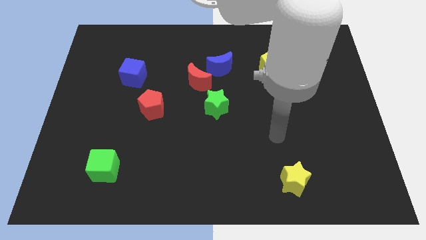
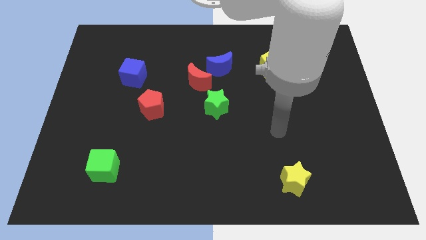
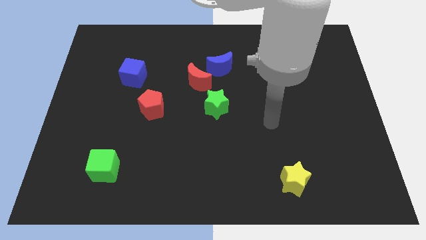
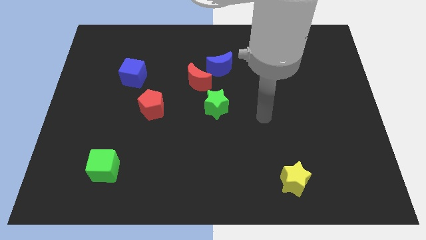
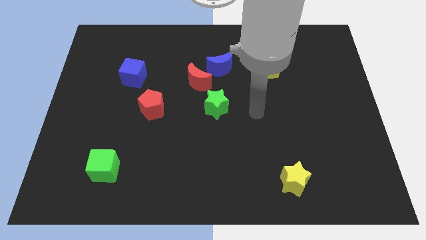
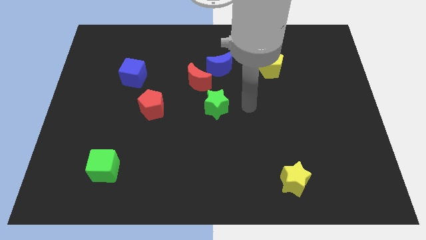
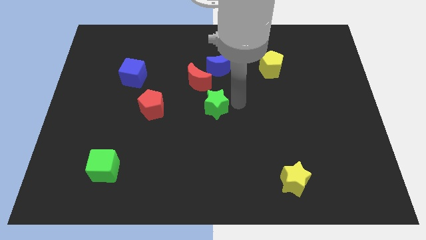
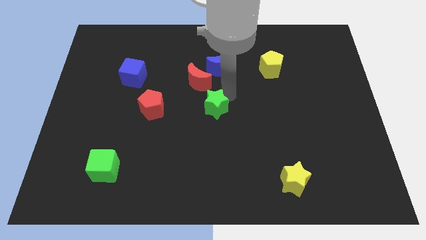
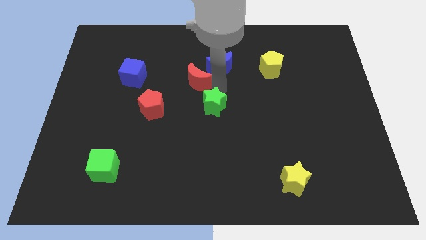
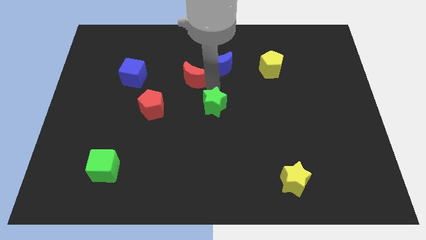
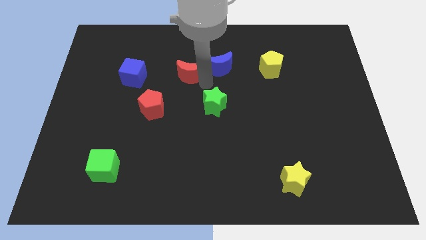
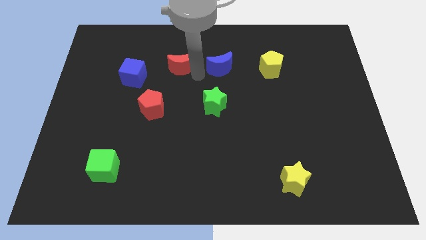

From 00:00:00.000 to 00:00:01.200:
pull the blue moon apart from the red moon

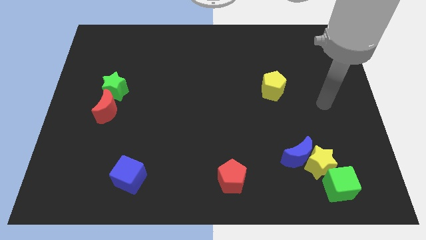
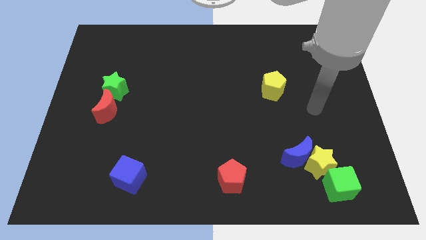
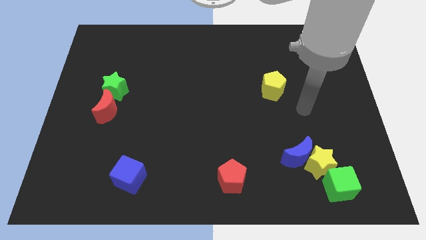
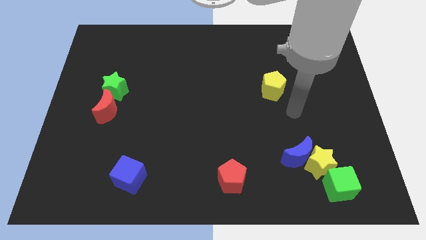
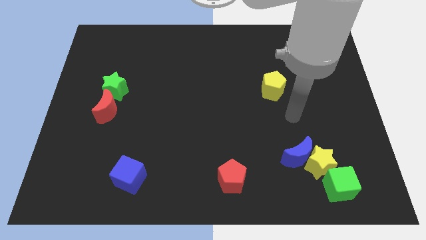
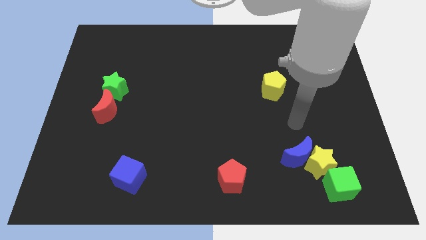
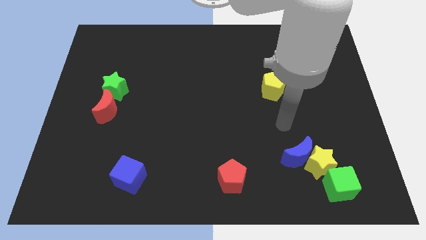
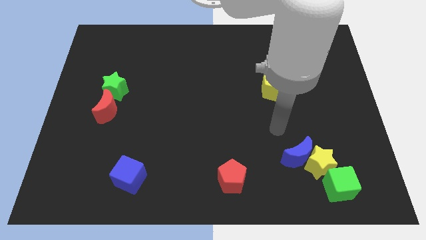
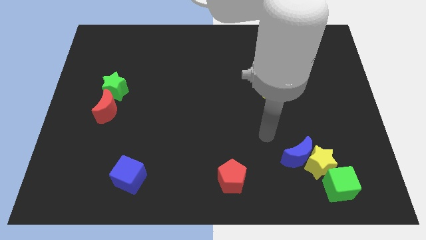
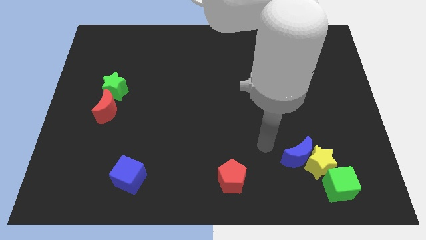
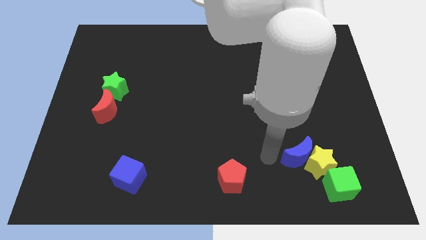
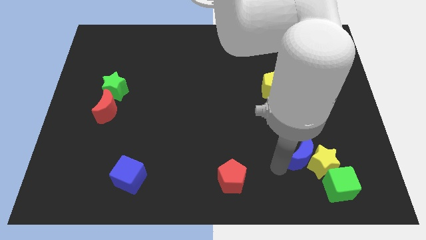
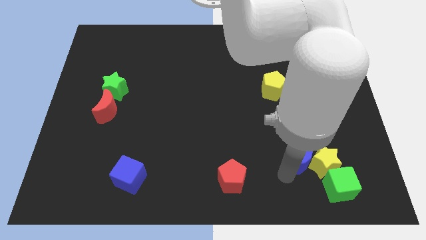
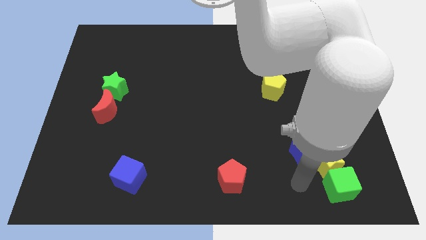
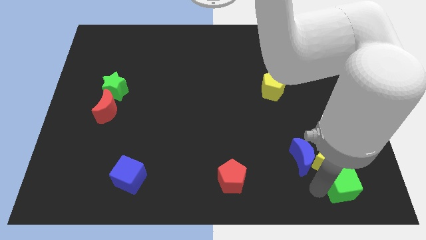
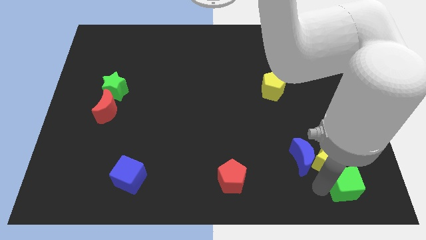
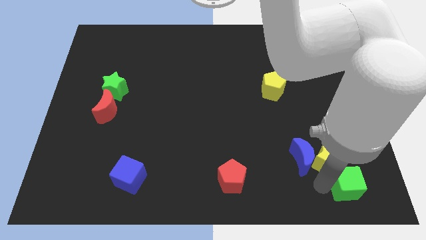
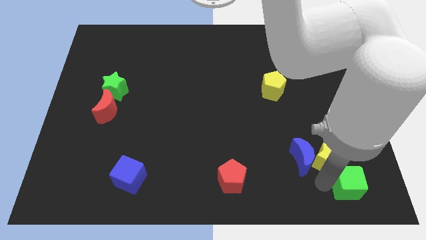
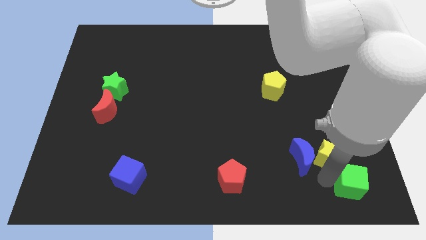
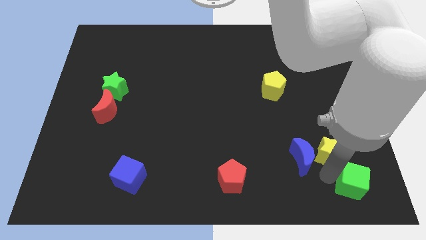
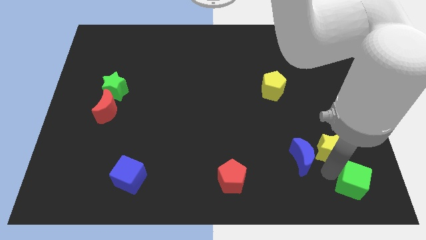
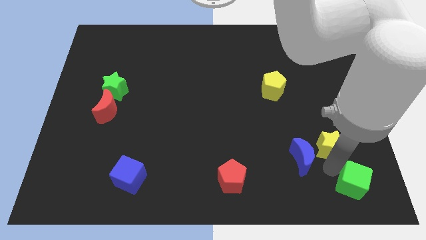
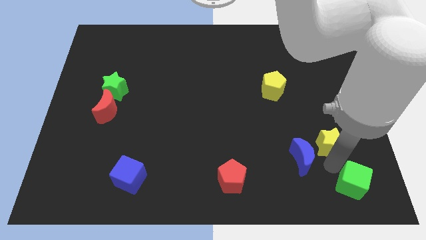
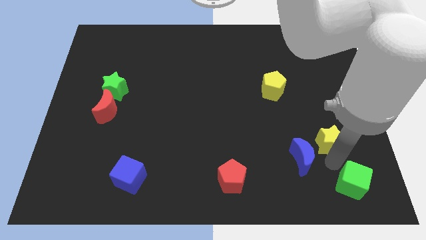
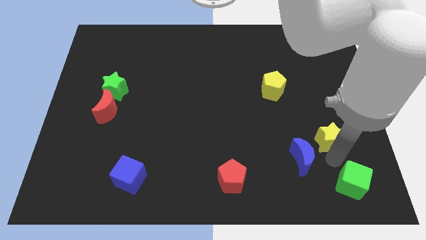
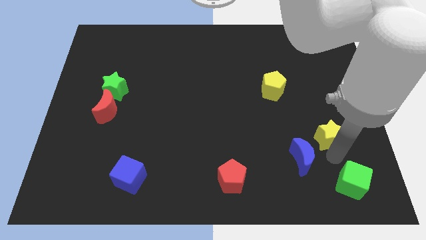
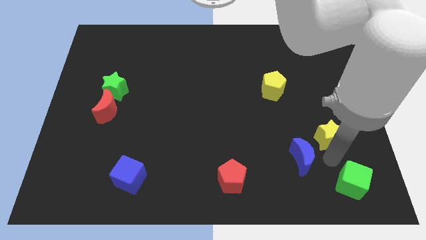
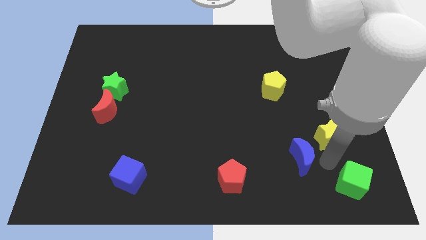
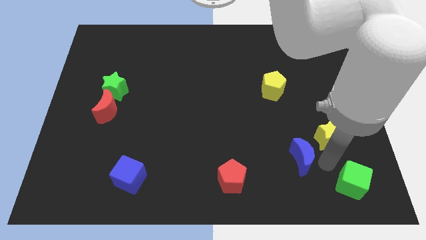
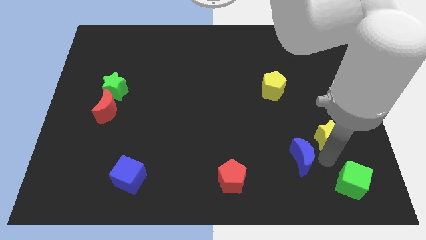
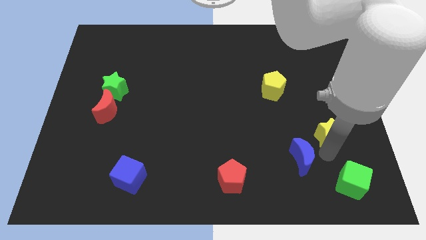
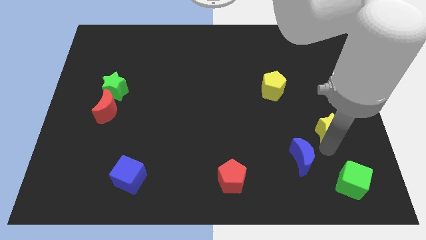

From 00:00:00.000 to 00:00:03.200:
pull the yellow star apart from the blue moon and green cube

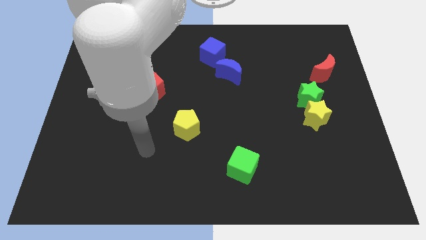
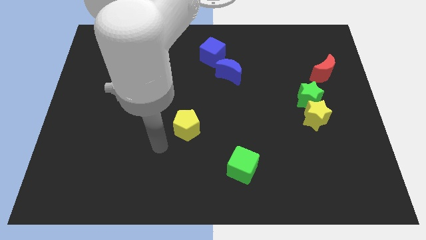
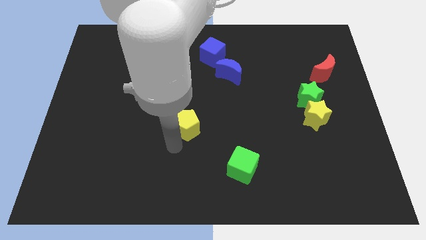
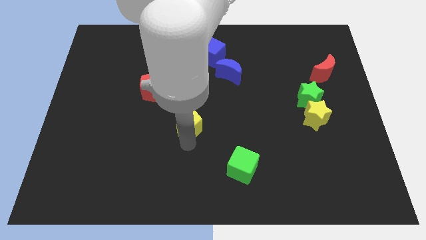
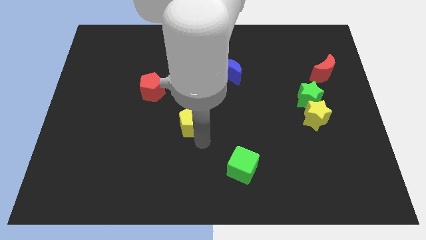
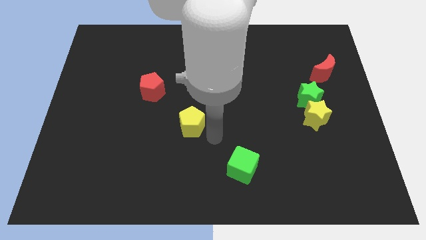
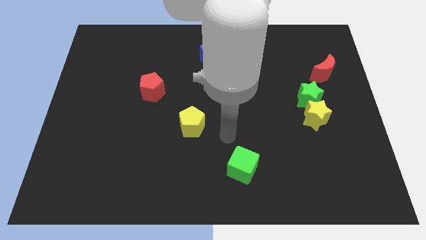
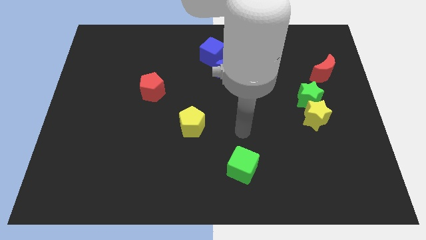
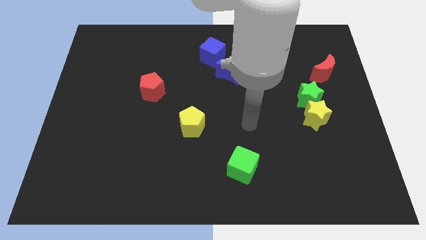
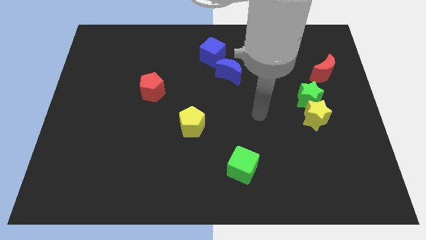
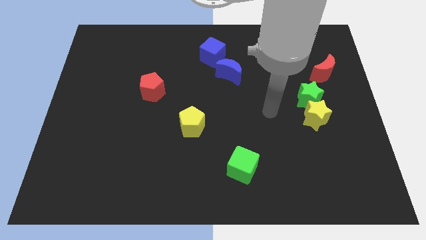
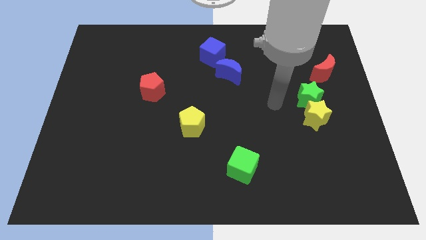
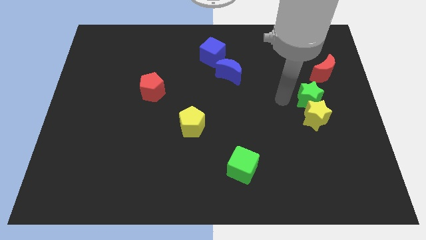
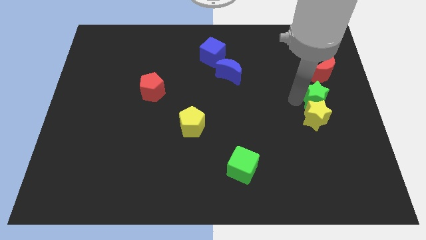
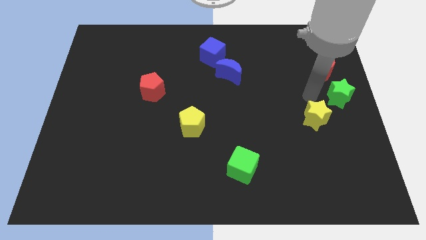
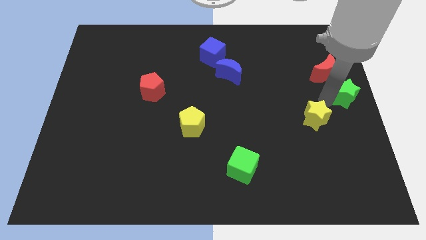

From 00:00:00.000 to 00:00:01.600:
move the yellow star away from the green star

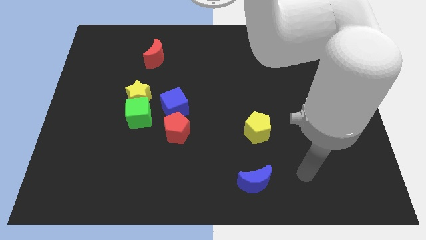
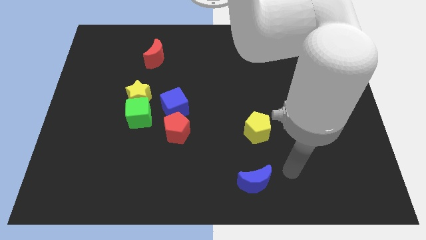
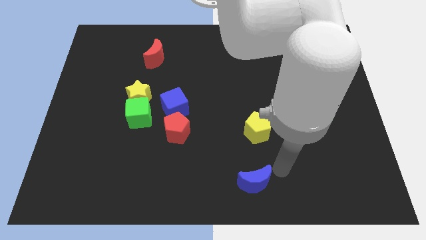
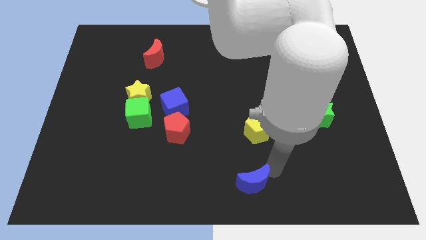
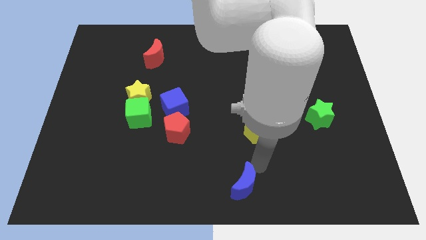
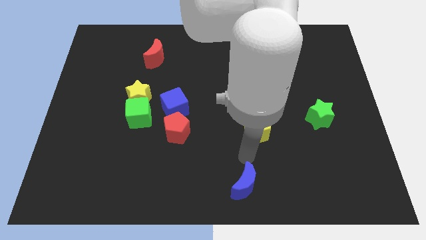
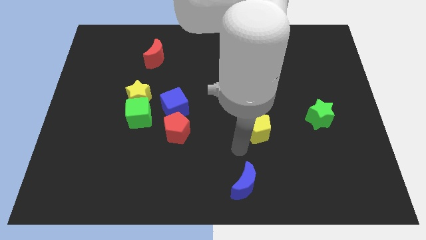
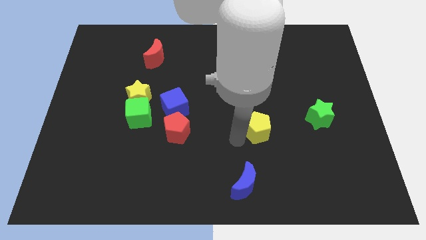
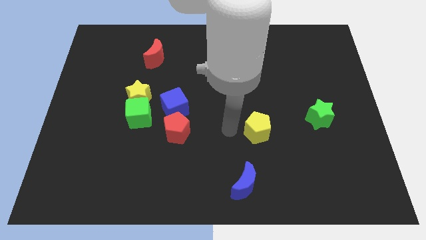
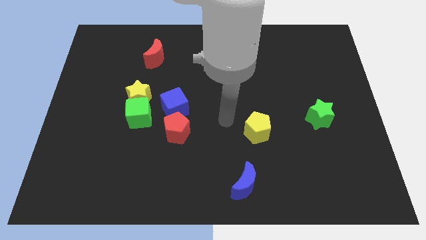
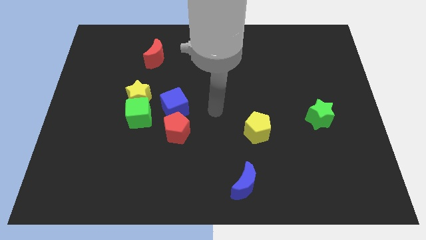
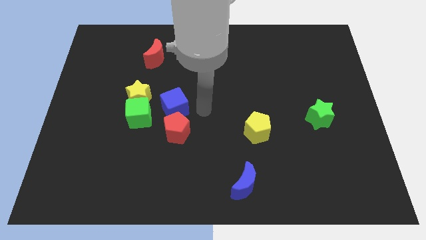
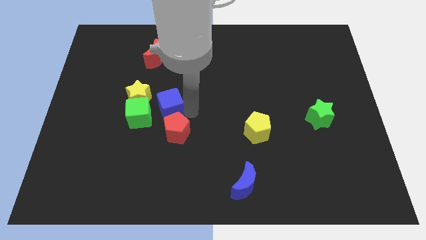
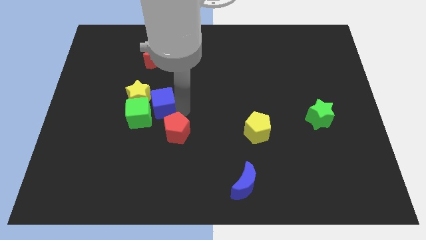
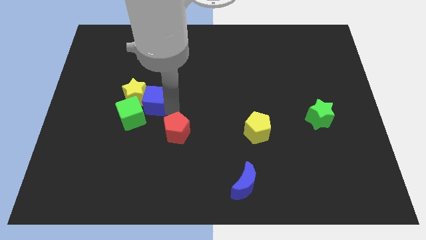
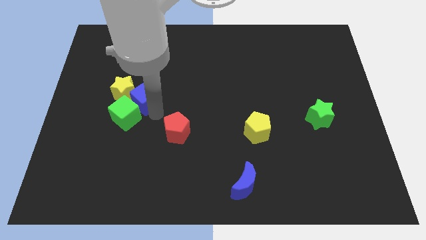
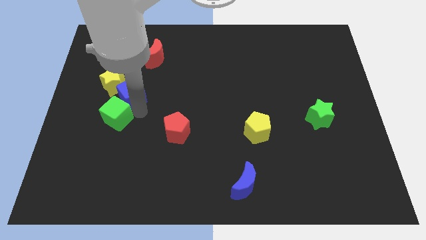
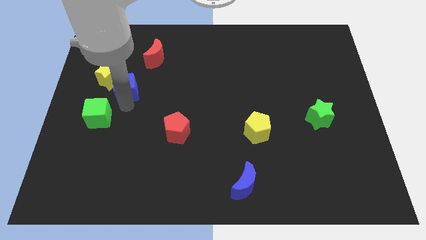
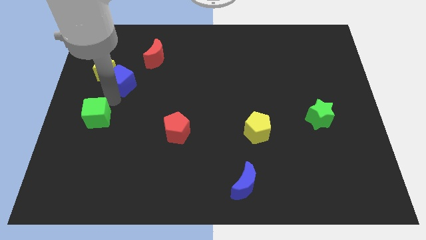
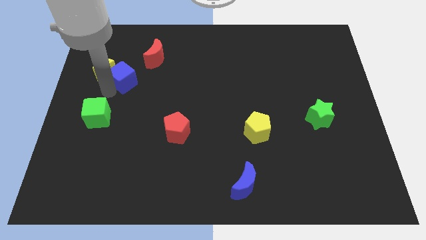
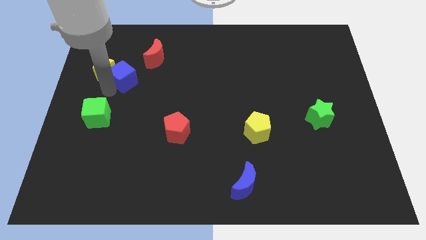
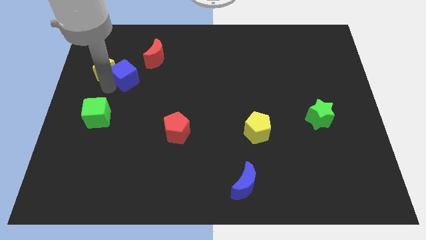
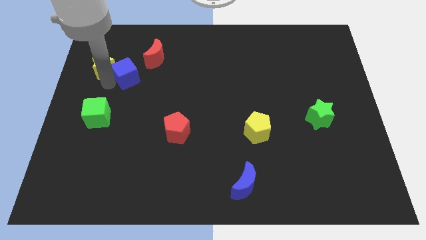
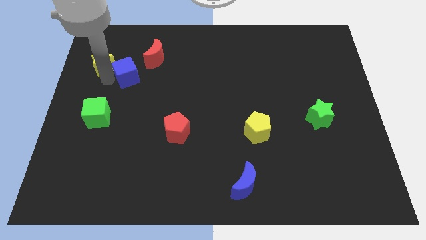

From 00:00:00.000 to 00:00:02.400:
move the yellow star away from the green cube and blue cube

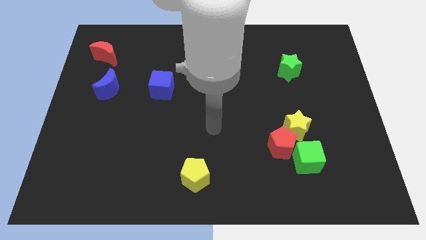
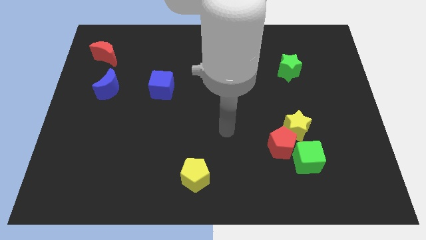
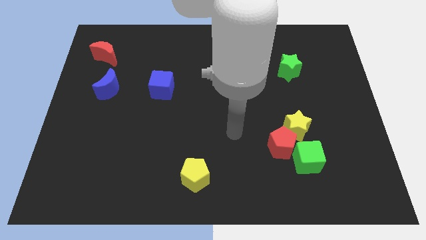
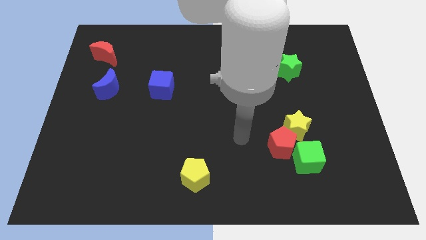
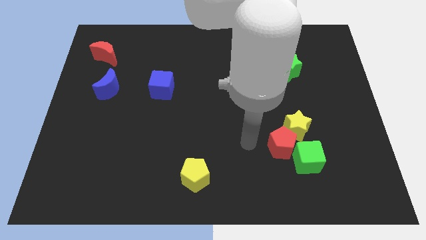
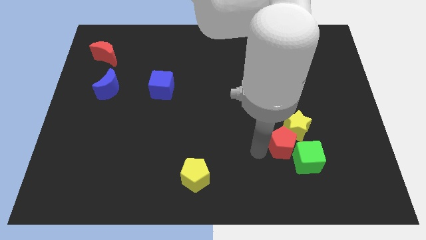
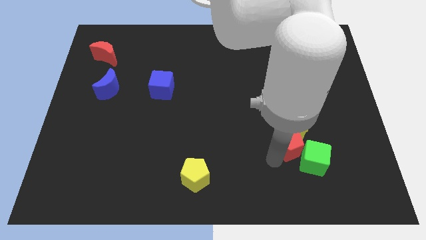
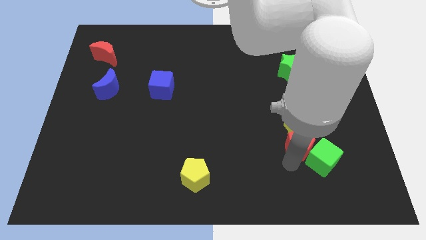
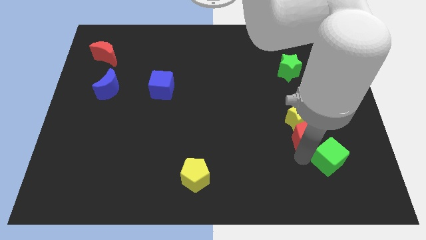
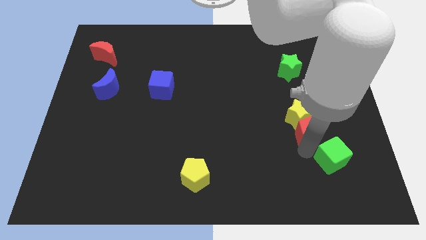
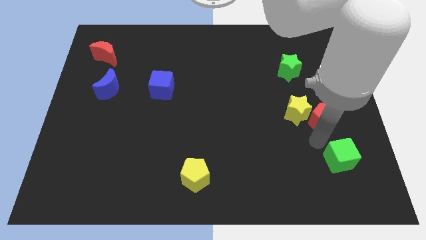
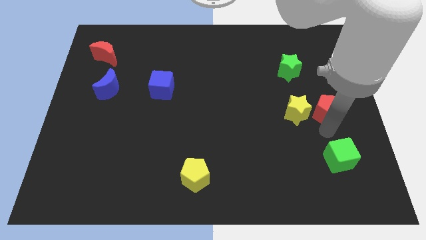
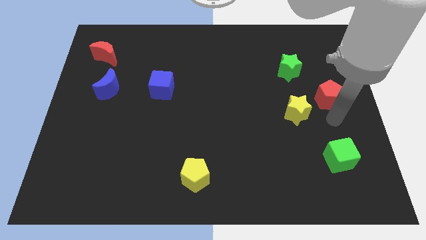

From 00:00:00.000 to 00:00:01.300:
move the red pentagon away from the yellow star and green cube
